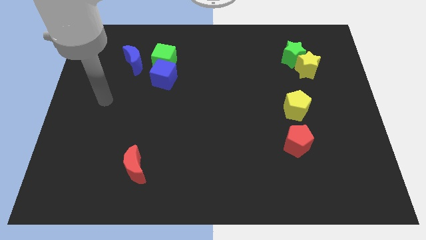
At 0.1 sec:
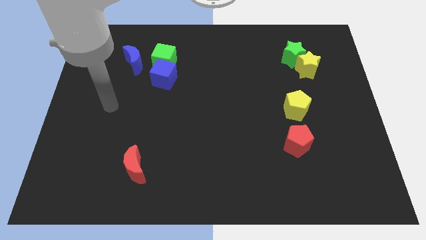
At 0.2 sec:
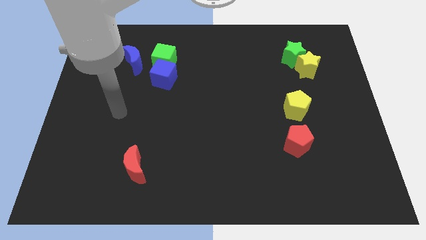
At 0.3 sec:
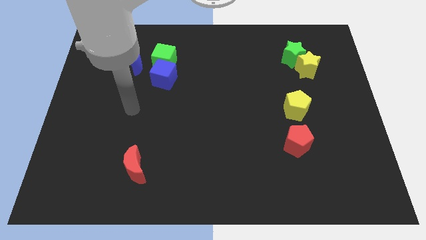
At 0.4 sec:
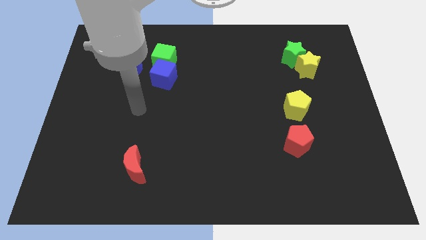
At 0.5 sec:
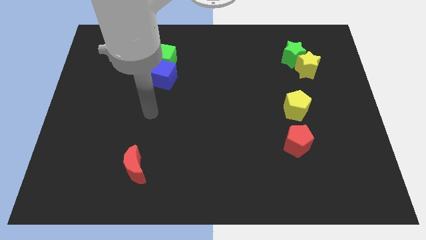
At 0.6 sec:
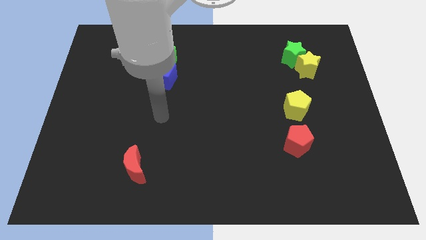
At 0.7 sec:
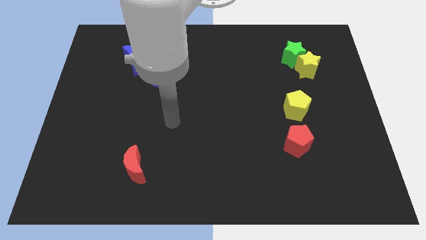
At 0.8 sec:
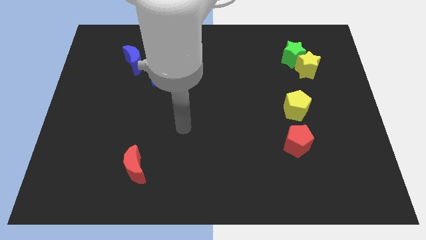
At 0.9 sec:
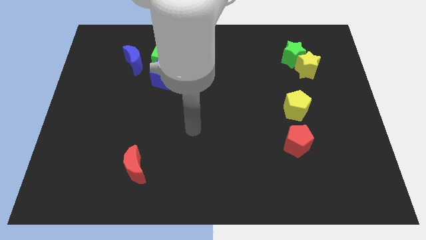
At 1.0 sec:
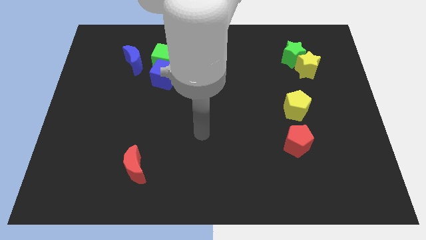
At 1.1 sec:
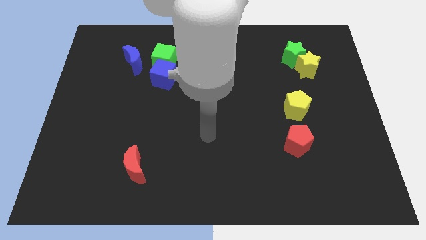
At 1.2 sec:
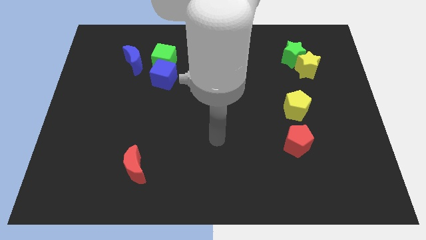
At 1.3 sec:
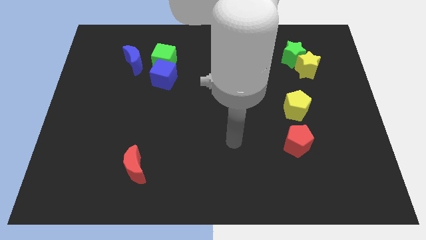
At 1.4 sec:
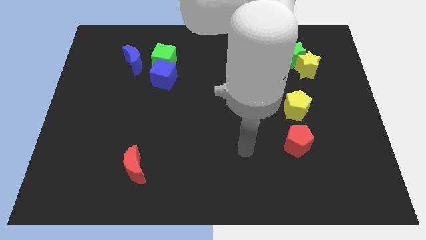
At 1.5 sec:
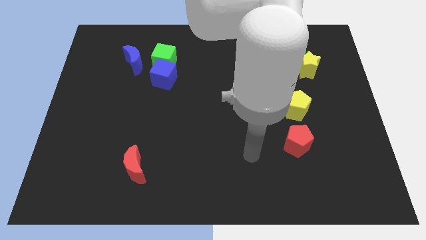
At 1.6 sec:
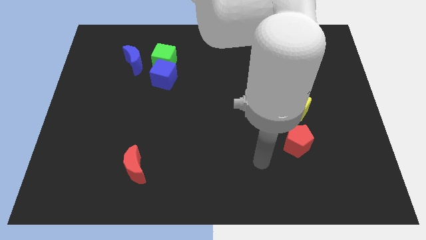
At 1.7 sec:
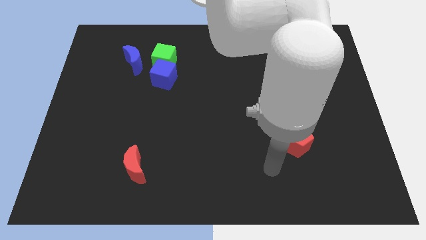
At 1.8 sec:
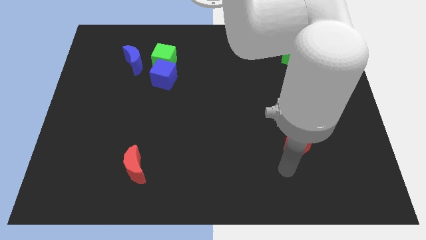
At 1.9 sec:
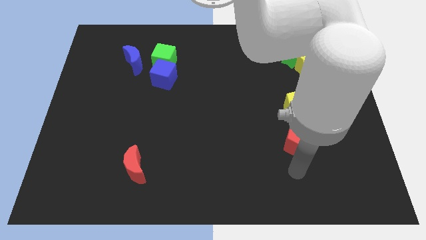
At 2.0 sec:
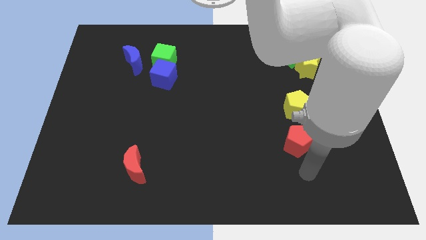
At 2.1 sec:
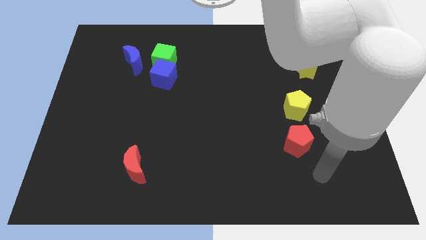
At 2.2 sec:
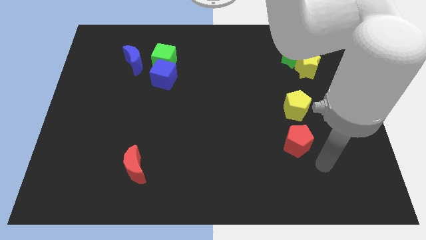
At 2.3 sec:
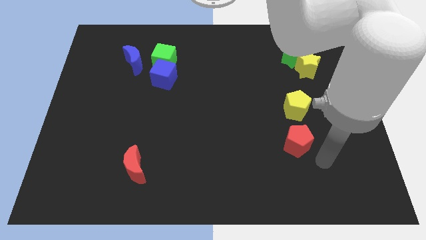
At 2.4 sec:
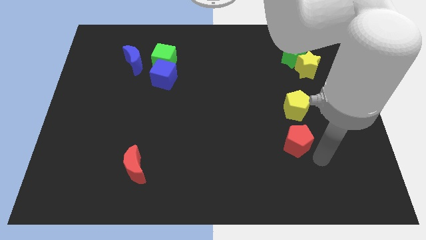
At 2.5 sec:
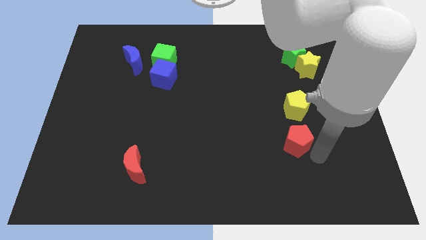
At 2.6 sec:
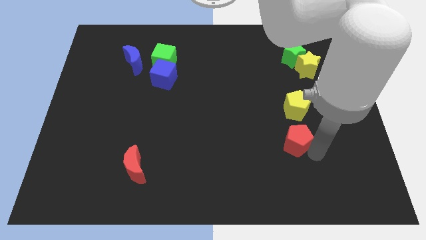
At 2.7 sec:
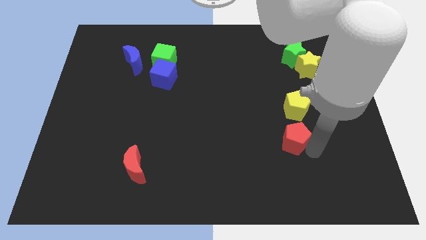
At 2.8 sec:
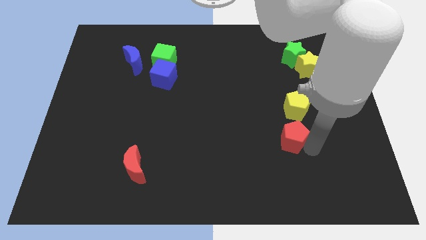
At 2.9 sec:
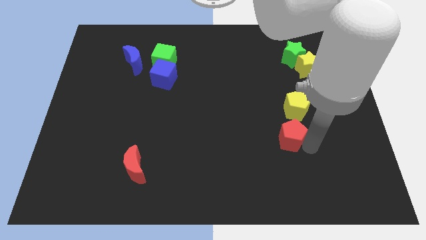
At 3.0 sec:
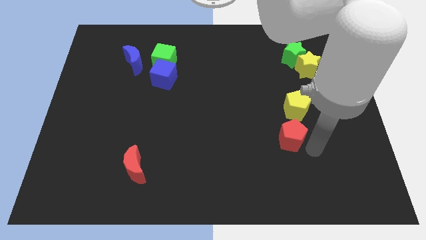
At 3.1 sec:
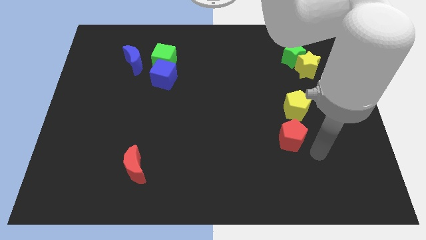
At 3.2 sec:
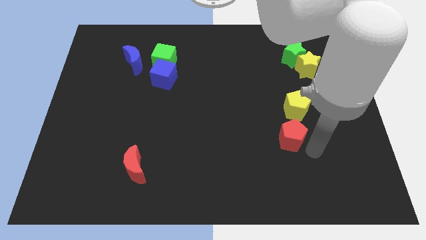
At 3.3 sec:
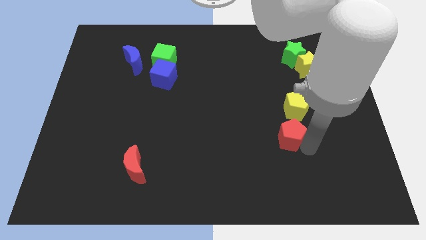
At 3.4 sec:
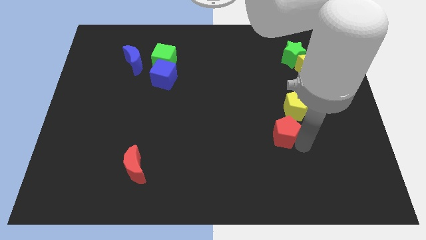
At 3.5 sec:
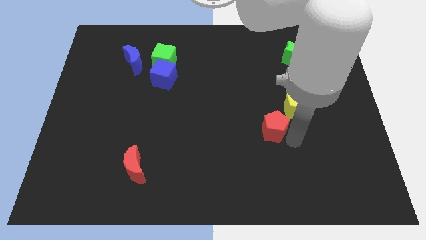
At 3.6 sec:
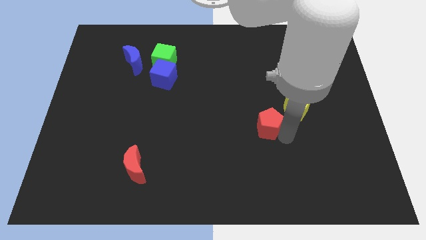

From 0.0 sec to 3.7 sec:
slightly slide the red pentagon diagonally up and left

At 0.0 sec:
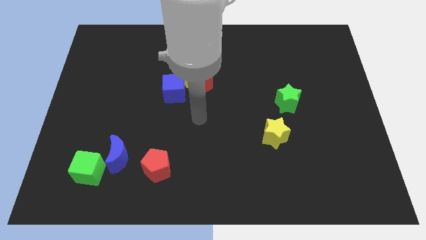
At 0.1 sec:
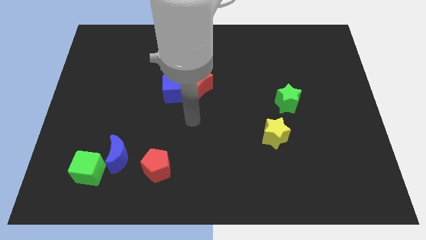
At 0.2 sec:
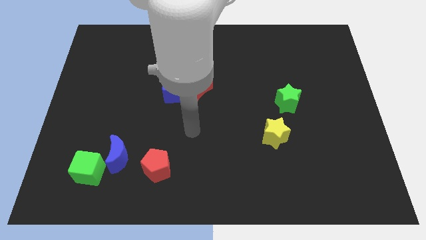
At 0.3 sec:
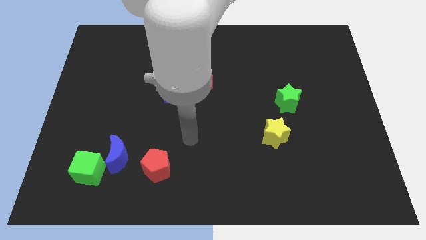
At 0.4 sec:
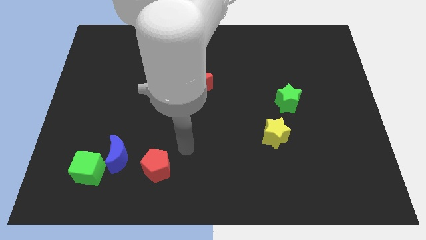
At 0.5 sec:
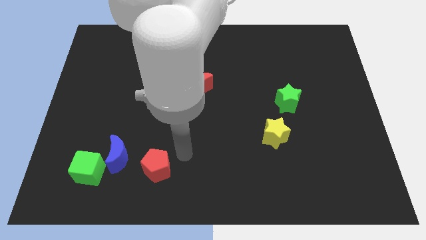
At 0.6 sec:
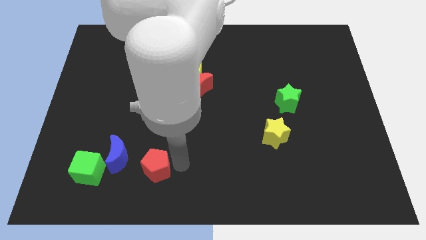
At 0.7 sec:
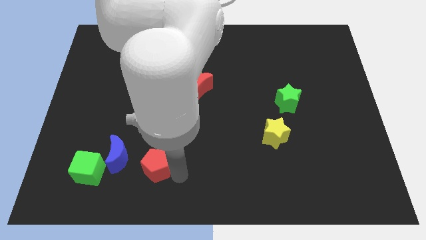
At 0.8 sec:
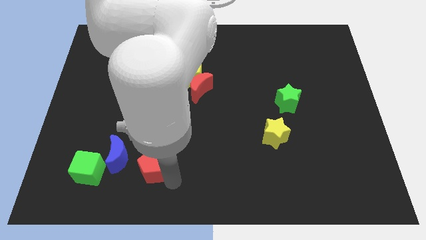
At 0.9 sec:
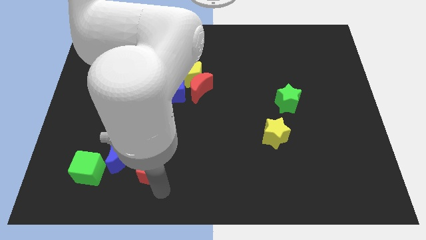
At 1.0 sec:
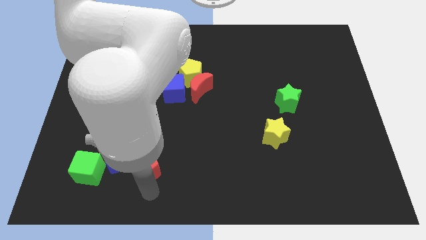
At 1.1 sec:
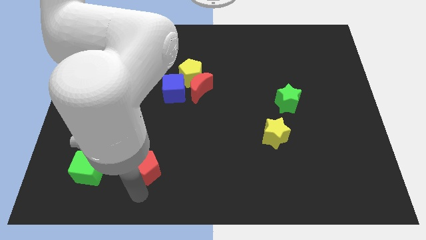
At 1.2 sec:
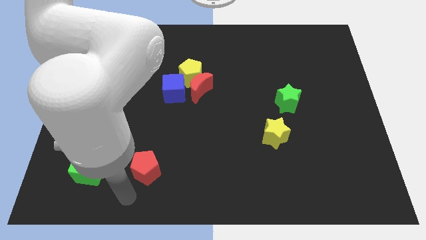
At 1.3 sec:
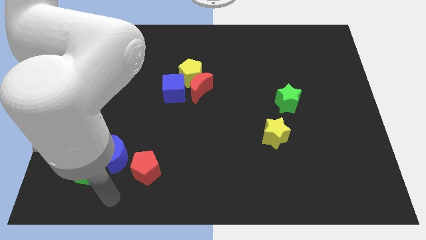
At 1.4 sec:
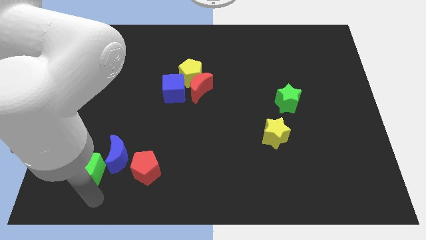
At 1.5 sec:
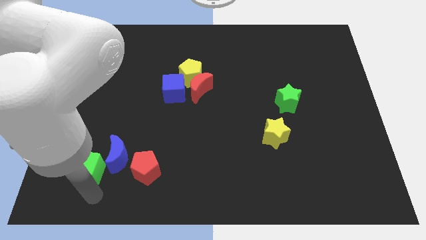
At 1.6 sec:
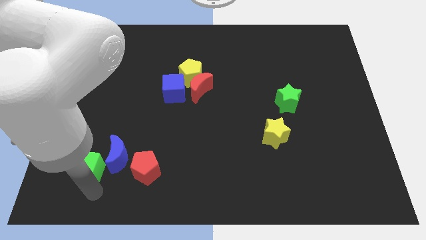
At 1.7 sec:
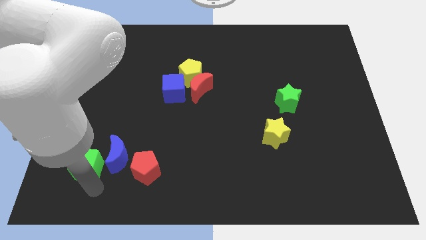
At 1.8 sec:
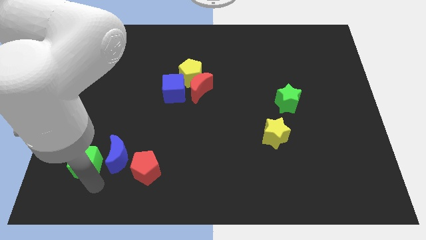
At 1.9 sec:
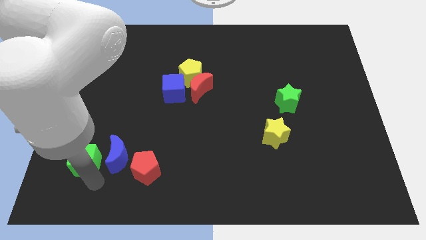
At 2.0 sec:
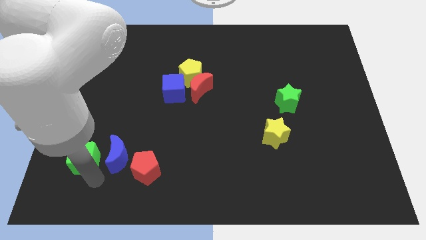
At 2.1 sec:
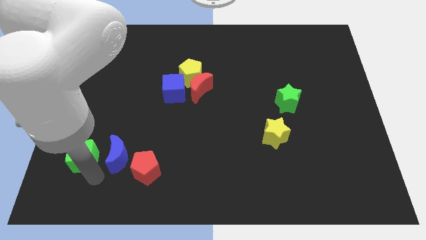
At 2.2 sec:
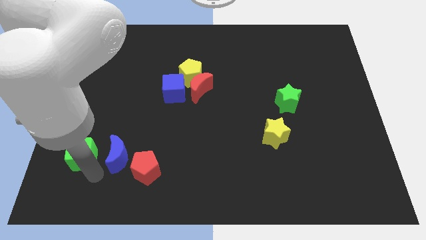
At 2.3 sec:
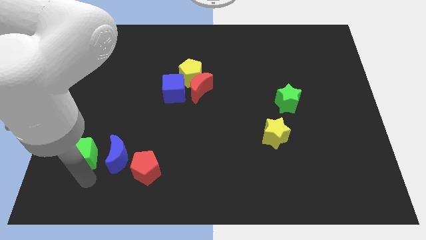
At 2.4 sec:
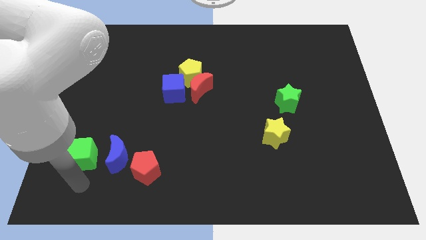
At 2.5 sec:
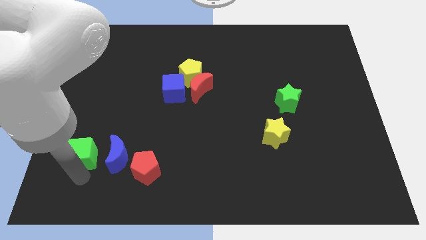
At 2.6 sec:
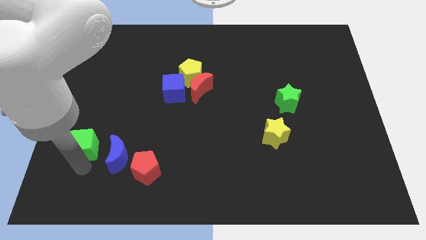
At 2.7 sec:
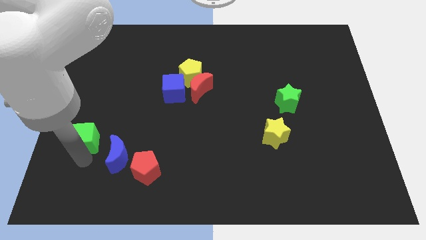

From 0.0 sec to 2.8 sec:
move the green cube a little bit up

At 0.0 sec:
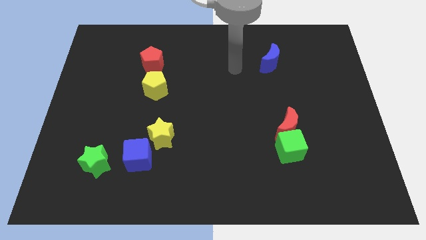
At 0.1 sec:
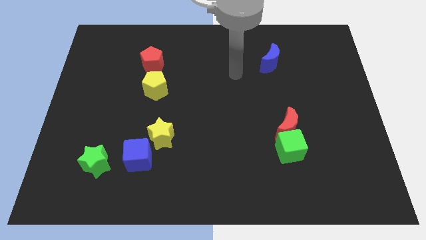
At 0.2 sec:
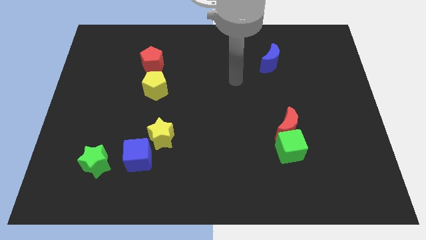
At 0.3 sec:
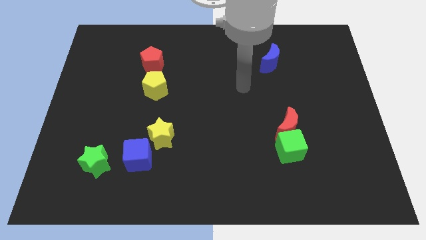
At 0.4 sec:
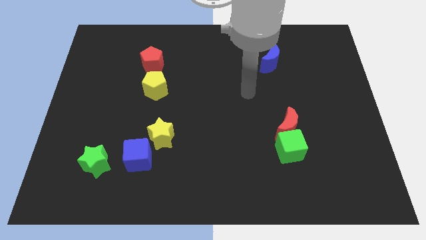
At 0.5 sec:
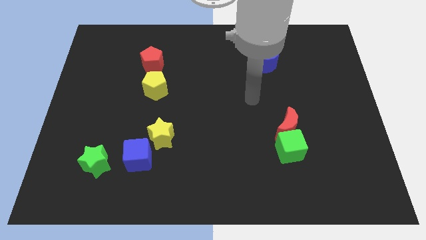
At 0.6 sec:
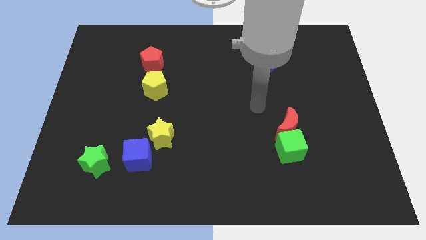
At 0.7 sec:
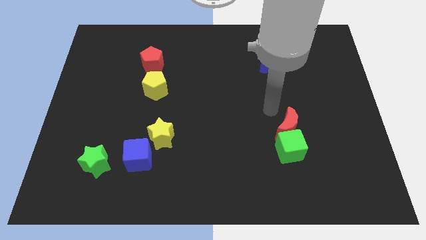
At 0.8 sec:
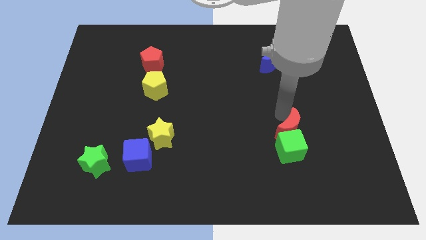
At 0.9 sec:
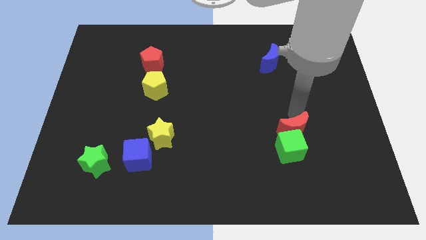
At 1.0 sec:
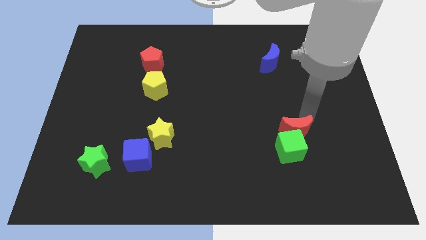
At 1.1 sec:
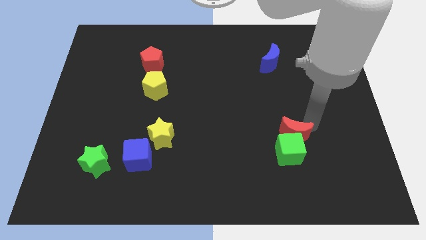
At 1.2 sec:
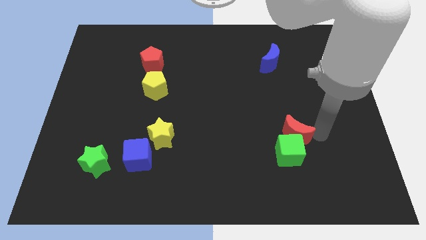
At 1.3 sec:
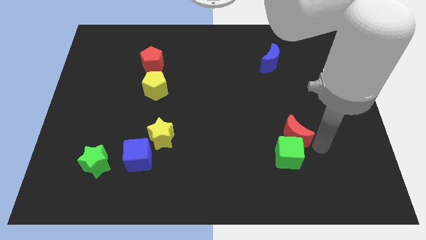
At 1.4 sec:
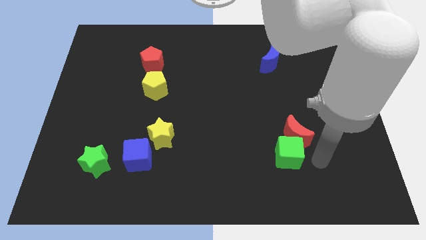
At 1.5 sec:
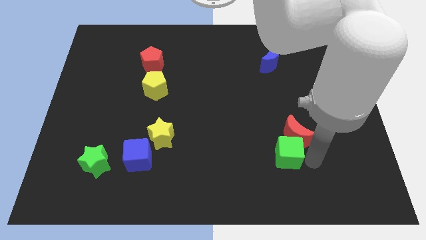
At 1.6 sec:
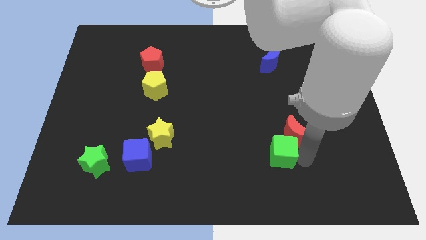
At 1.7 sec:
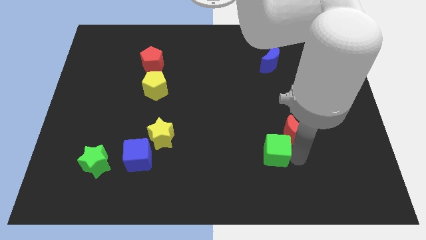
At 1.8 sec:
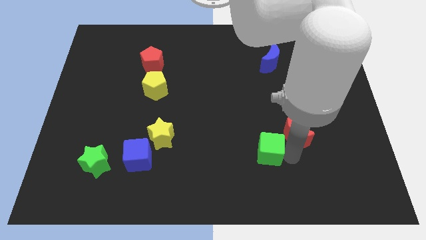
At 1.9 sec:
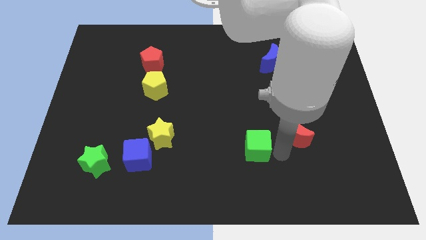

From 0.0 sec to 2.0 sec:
slightly push the green cube to the left
